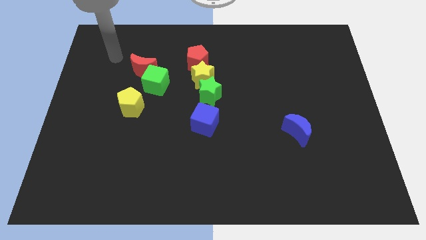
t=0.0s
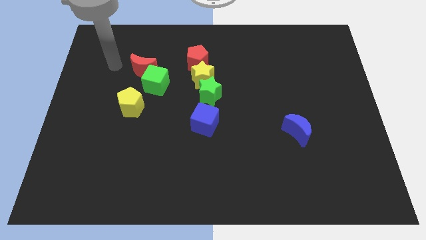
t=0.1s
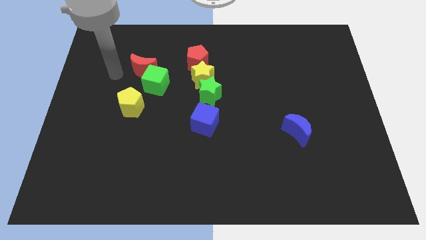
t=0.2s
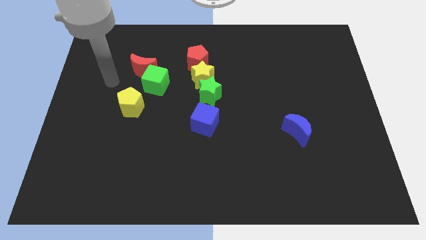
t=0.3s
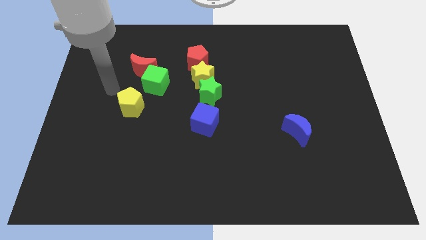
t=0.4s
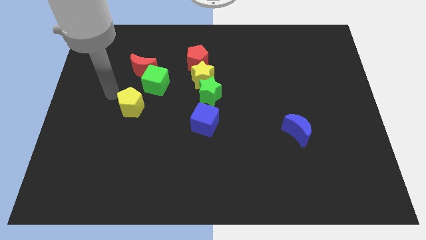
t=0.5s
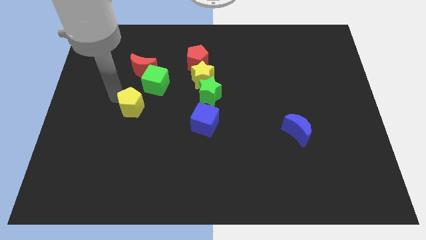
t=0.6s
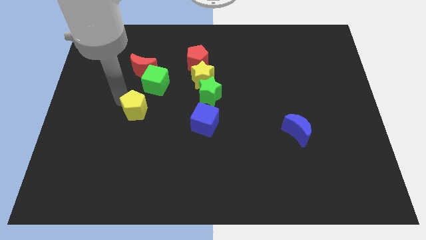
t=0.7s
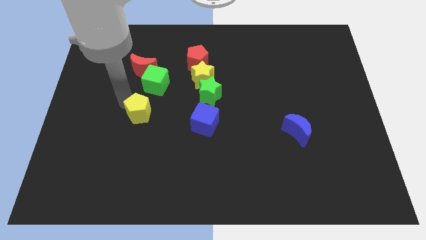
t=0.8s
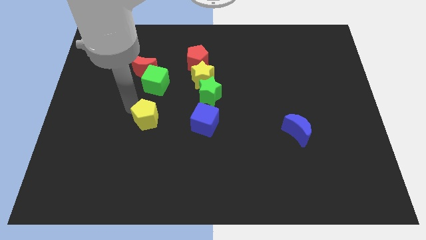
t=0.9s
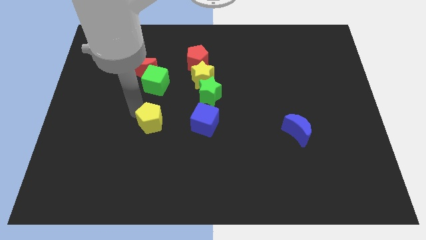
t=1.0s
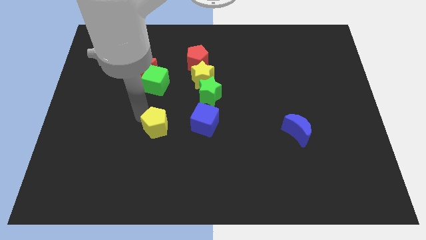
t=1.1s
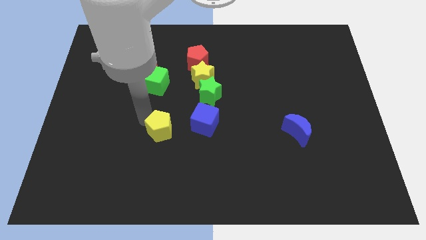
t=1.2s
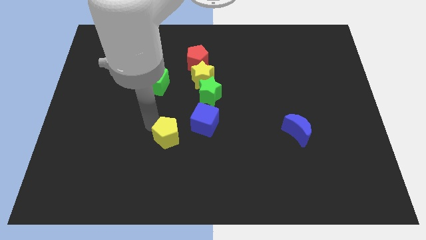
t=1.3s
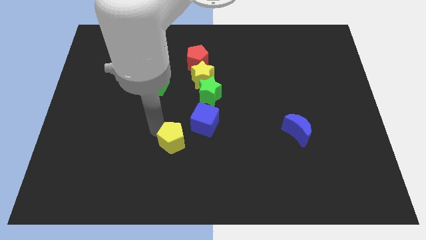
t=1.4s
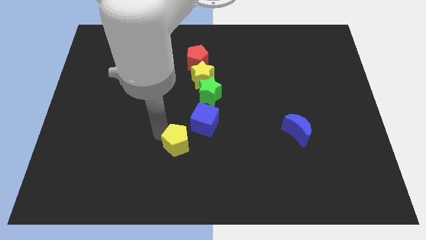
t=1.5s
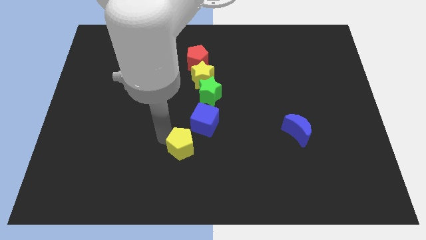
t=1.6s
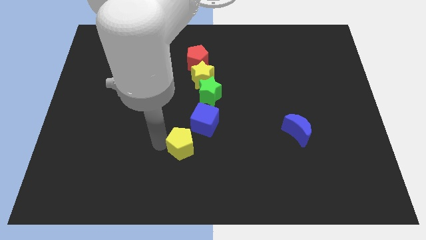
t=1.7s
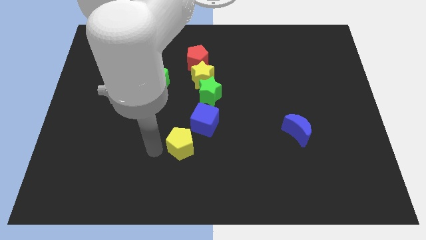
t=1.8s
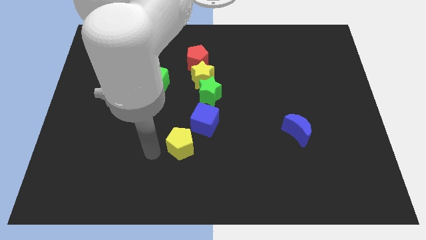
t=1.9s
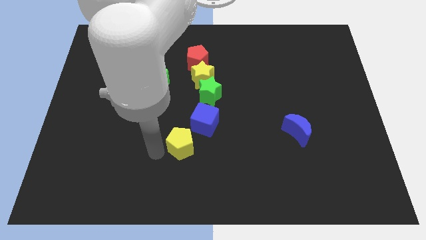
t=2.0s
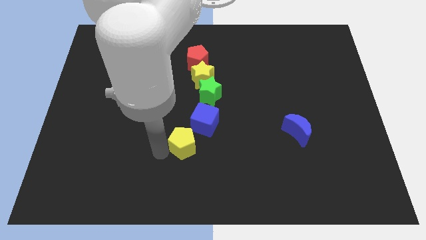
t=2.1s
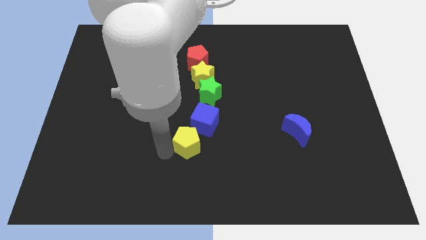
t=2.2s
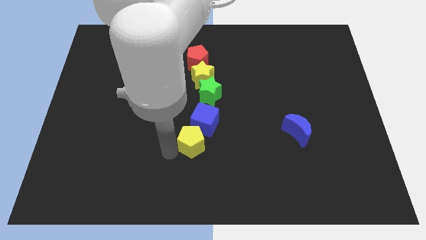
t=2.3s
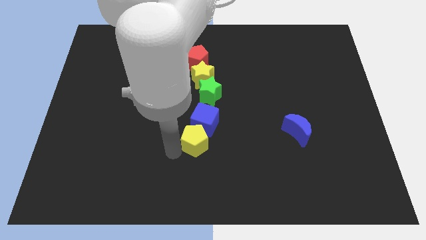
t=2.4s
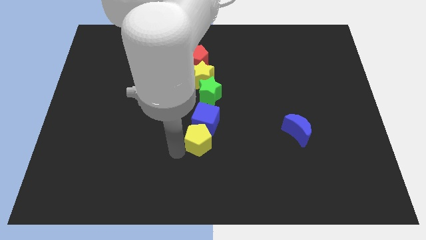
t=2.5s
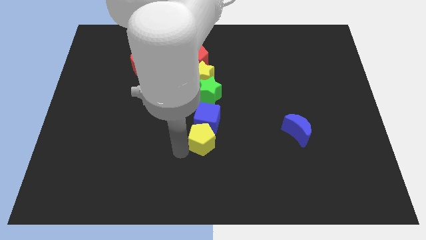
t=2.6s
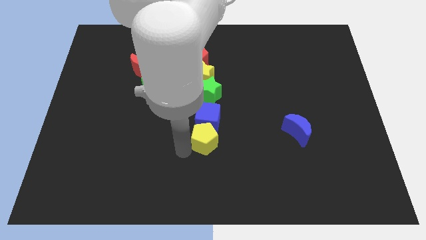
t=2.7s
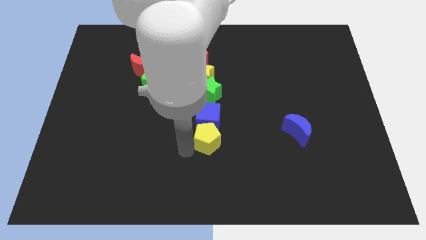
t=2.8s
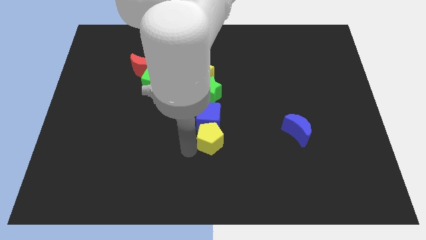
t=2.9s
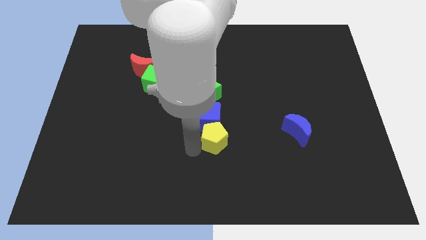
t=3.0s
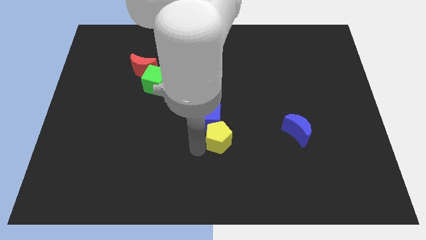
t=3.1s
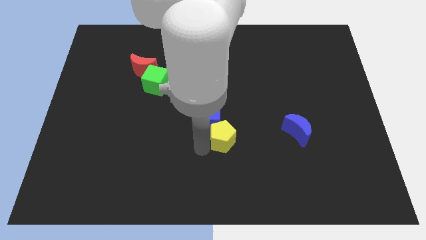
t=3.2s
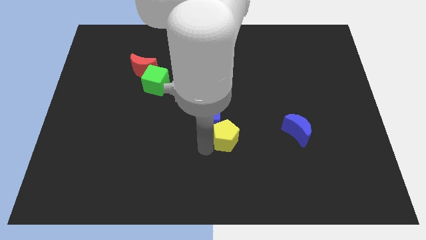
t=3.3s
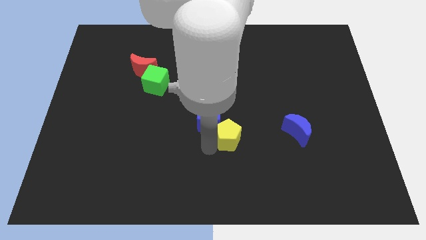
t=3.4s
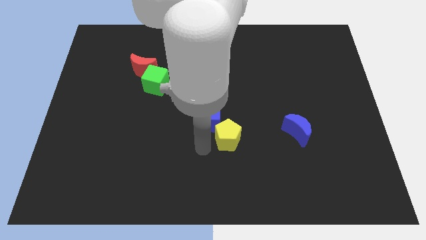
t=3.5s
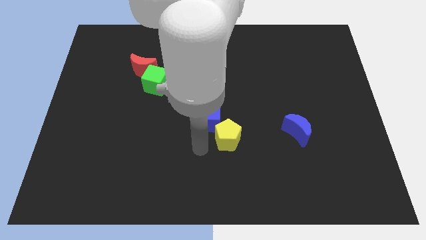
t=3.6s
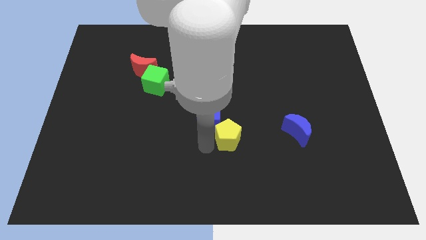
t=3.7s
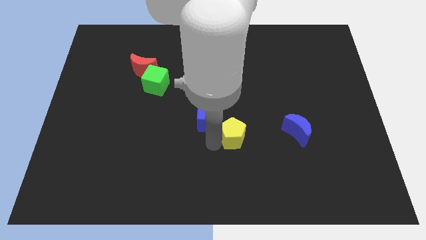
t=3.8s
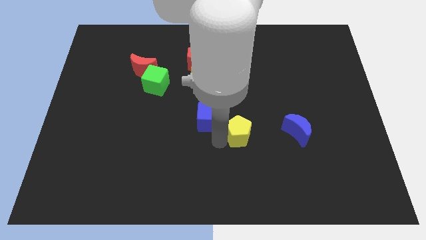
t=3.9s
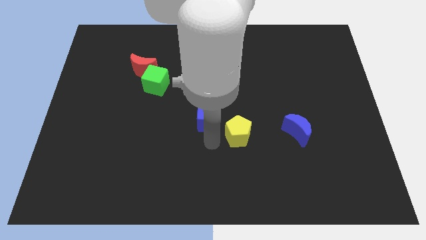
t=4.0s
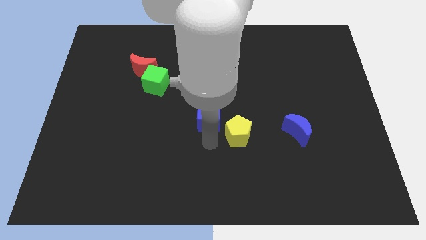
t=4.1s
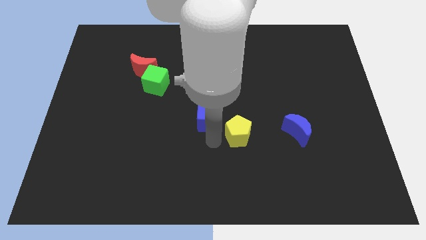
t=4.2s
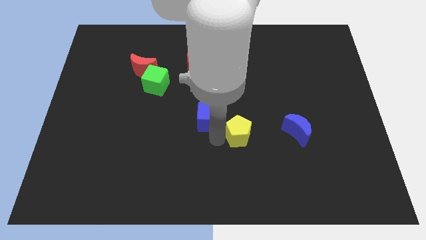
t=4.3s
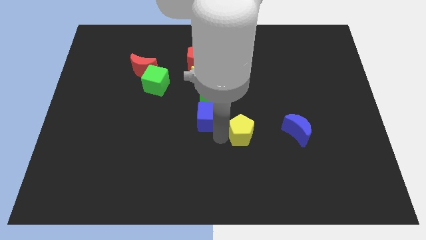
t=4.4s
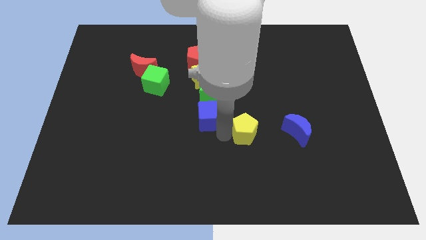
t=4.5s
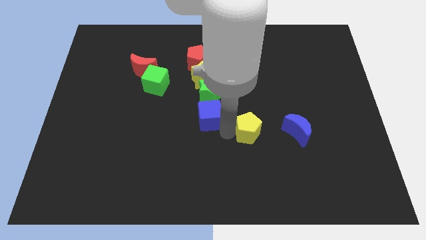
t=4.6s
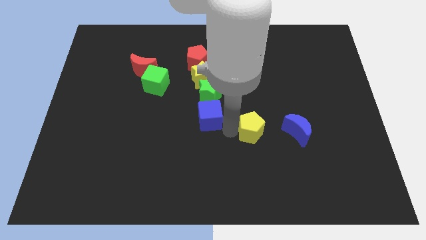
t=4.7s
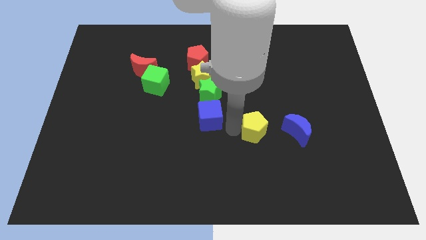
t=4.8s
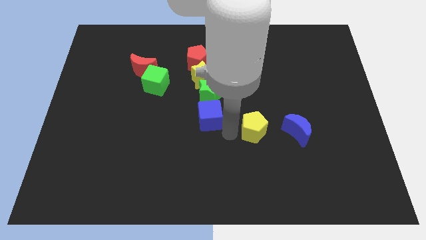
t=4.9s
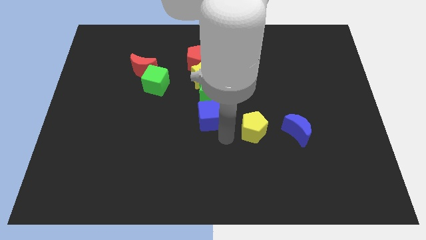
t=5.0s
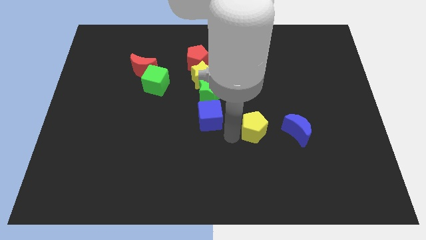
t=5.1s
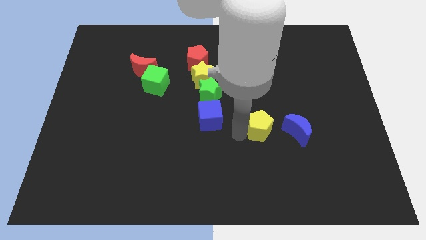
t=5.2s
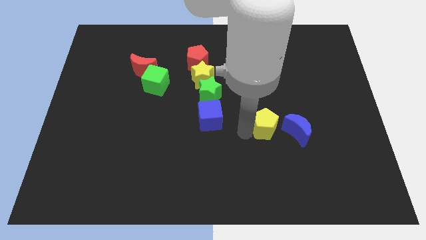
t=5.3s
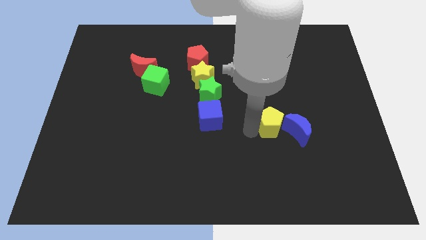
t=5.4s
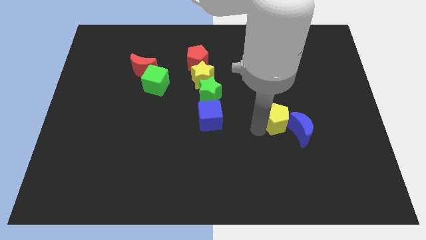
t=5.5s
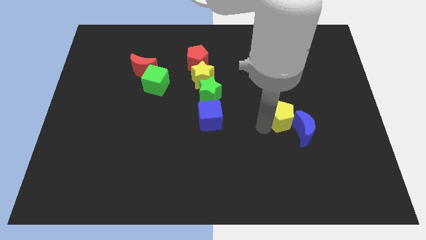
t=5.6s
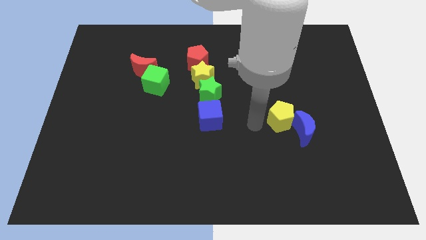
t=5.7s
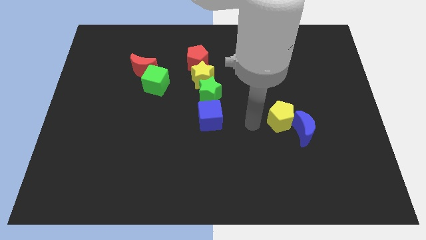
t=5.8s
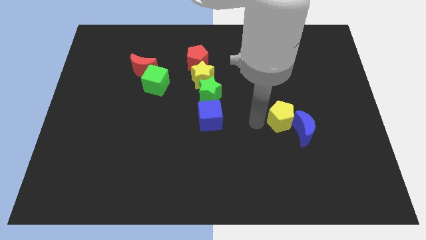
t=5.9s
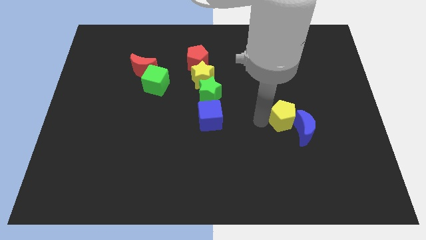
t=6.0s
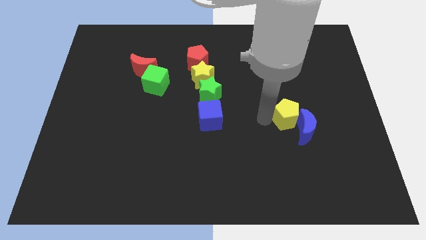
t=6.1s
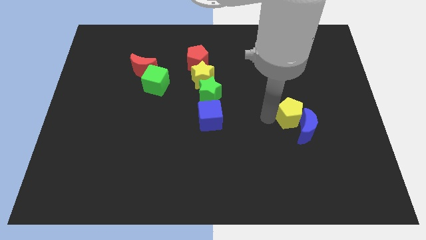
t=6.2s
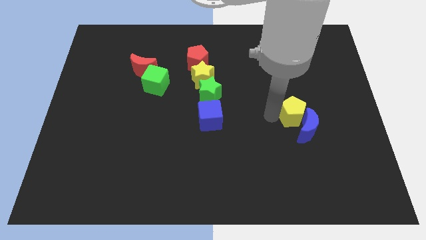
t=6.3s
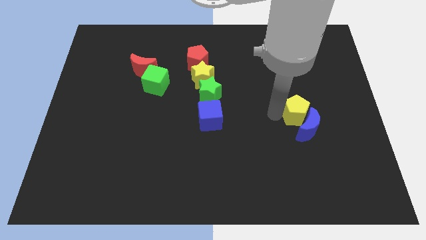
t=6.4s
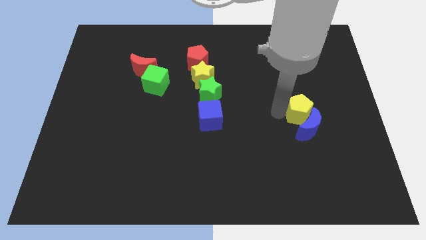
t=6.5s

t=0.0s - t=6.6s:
push the yellow pentagon to the top right of the blue moon

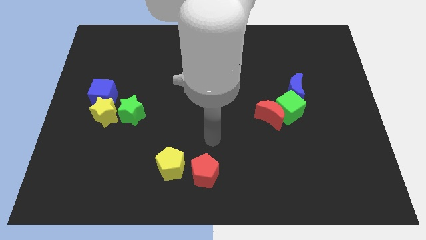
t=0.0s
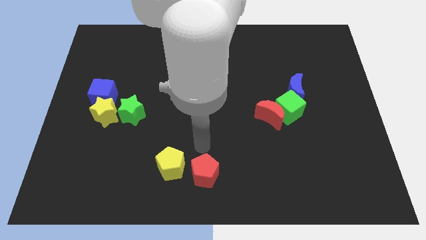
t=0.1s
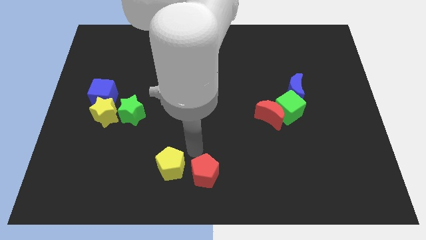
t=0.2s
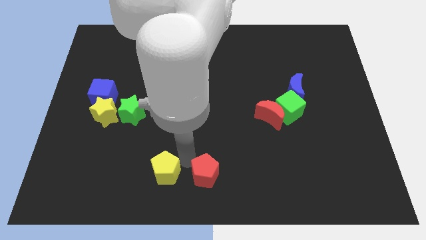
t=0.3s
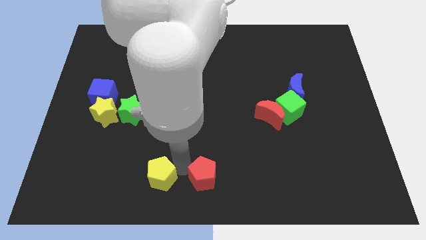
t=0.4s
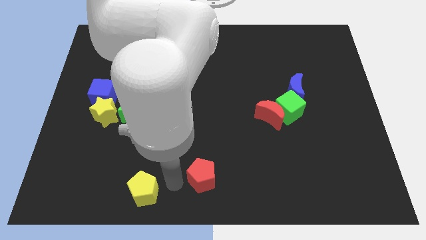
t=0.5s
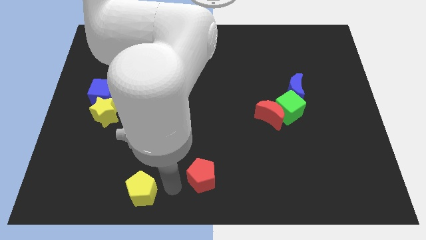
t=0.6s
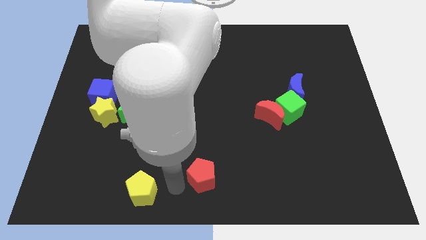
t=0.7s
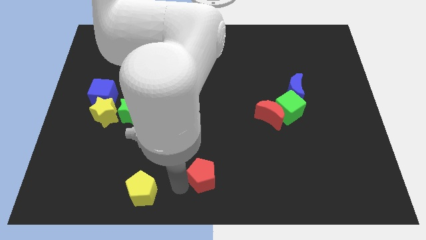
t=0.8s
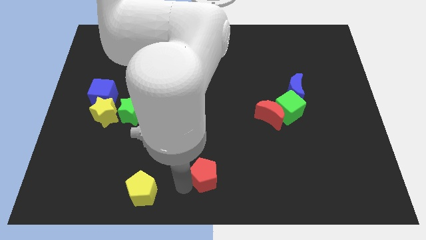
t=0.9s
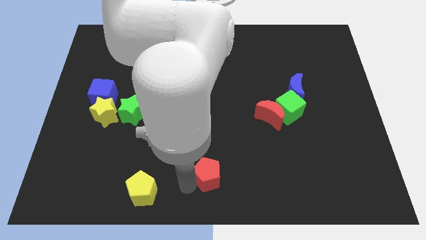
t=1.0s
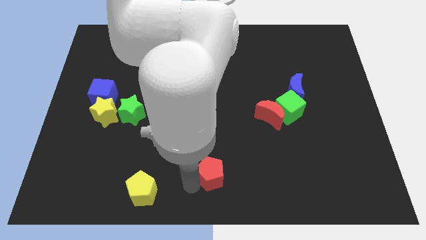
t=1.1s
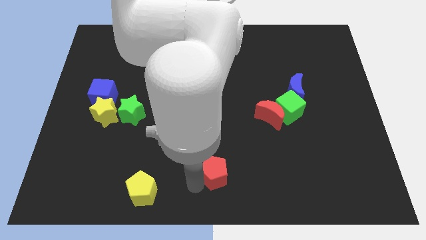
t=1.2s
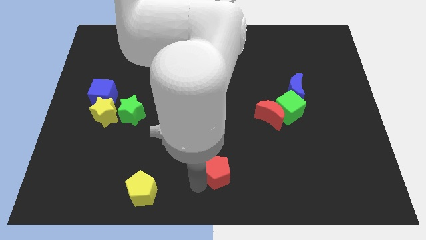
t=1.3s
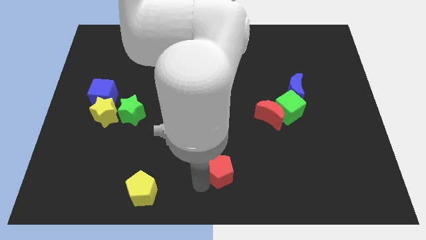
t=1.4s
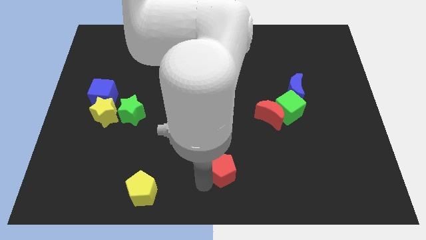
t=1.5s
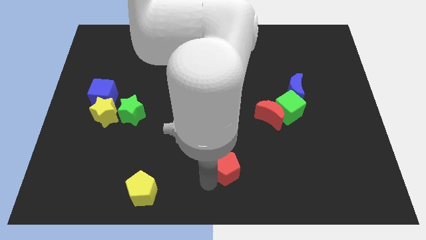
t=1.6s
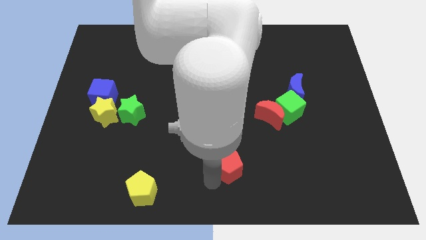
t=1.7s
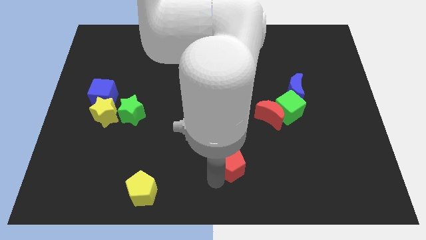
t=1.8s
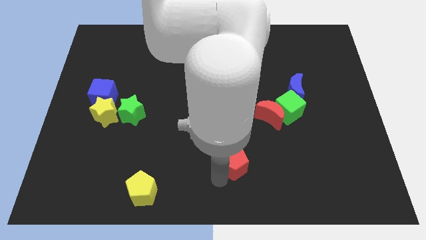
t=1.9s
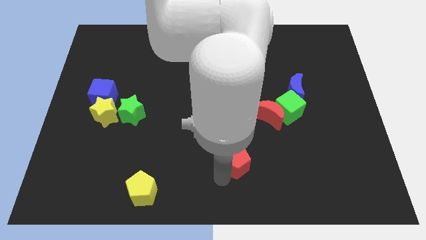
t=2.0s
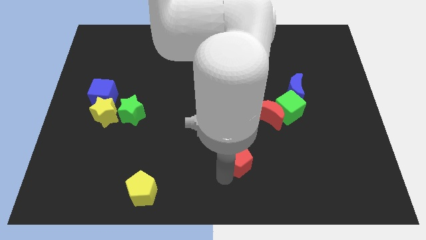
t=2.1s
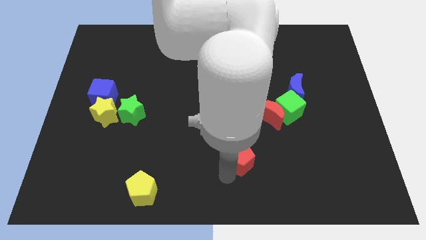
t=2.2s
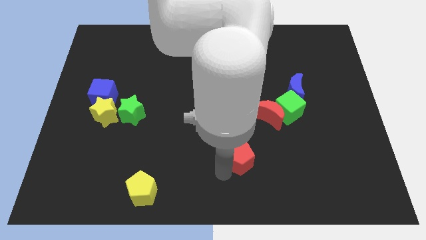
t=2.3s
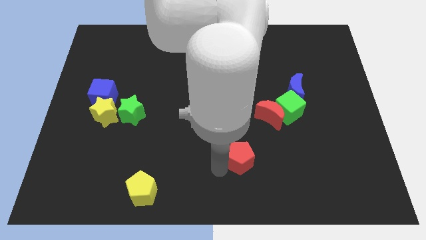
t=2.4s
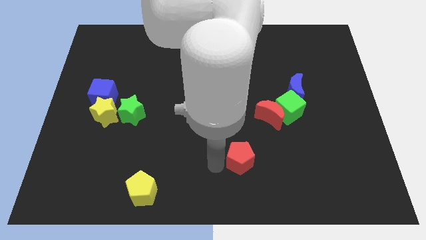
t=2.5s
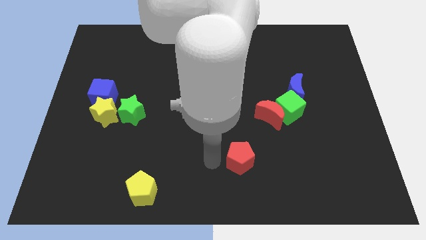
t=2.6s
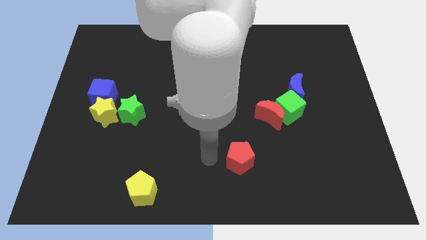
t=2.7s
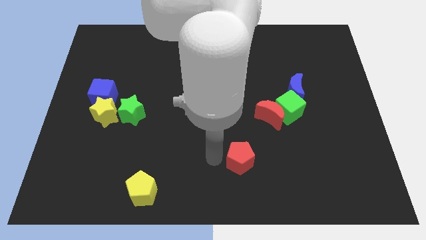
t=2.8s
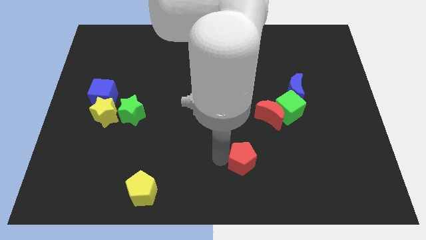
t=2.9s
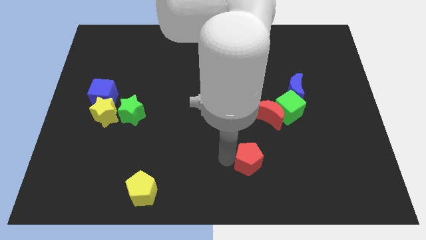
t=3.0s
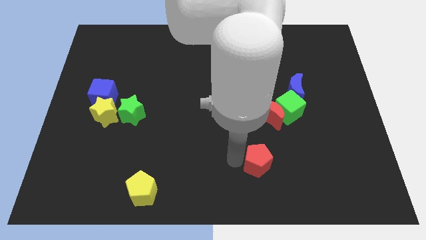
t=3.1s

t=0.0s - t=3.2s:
slide the red pentagon to the bottom side of the red moon
